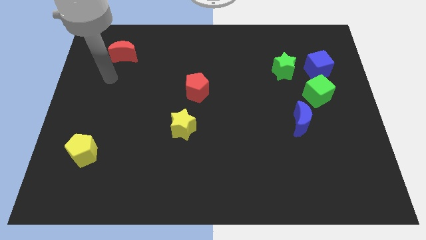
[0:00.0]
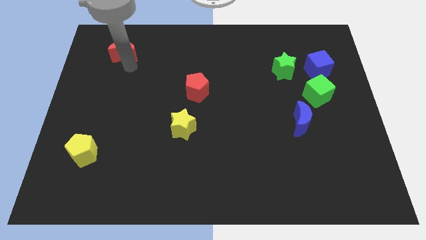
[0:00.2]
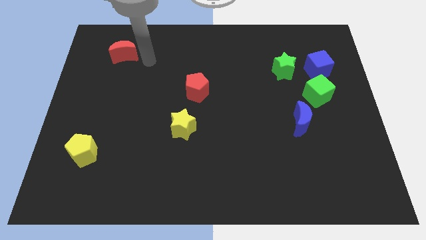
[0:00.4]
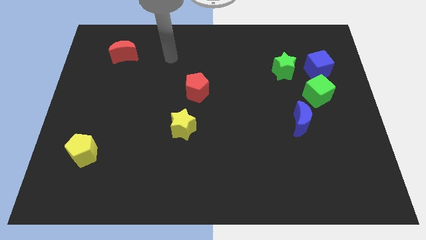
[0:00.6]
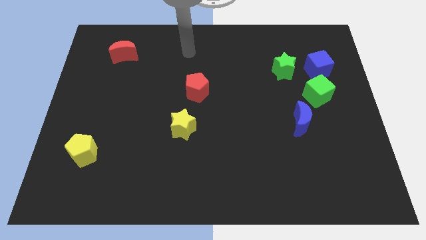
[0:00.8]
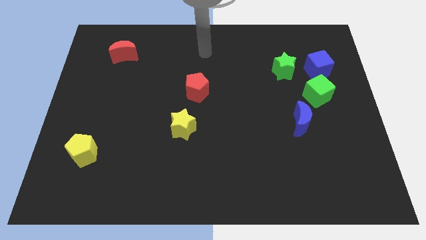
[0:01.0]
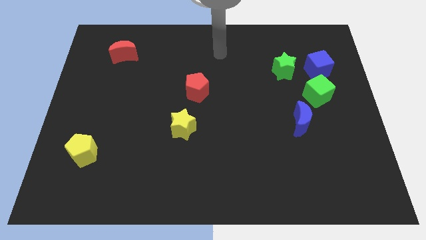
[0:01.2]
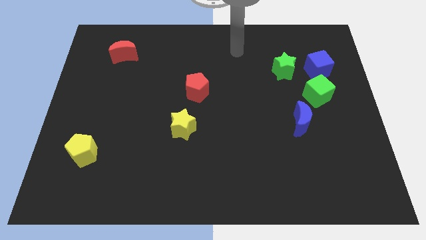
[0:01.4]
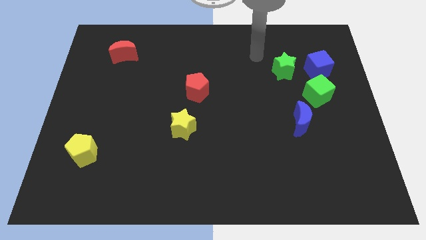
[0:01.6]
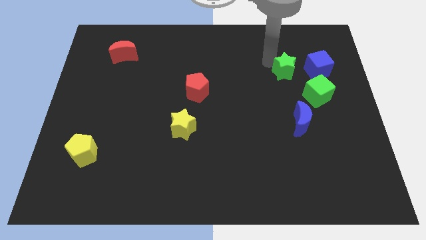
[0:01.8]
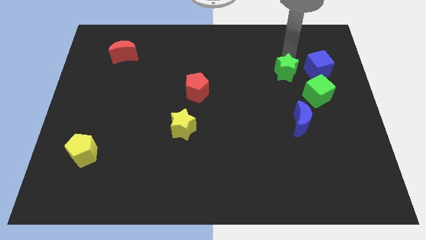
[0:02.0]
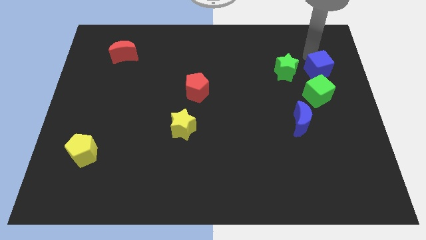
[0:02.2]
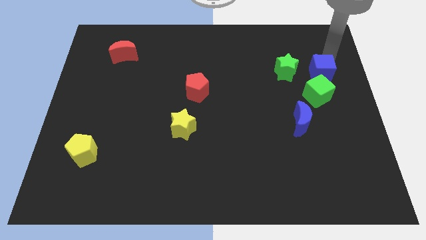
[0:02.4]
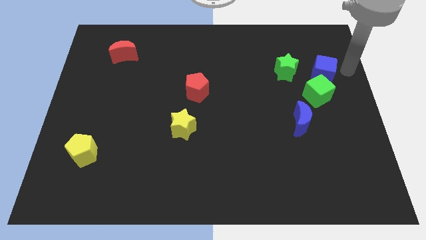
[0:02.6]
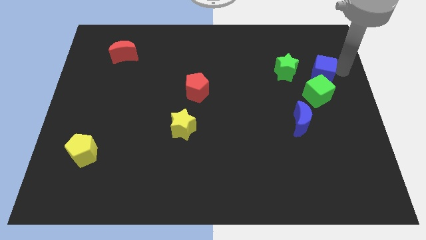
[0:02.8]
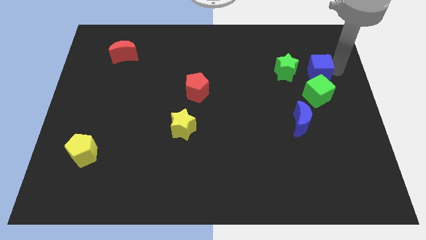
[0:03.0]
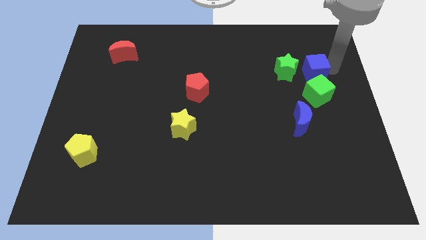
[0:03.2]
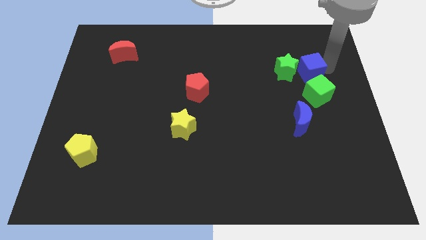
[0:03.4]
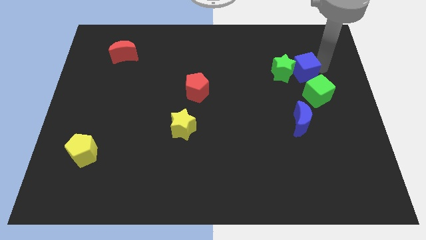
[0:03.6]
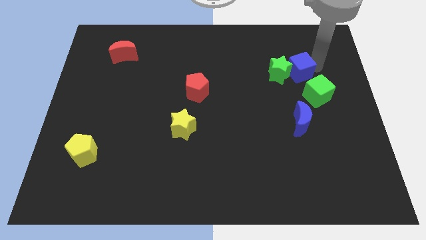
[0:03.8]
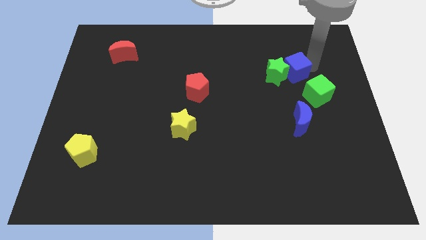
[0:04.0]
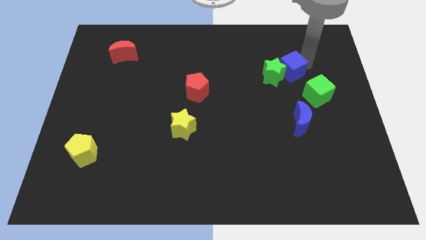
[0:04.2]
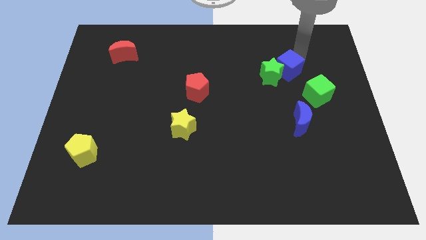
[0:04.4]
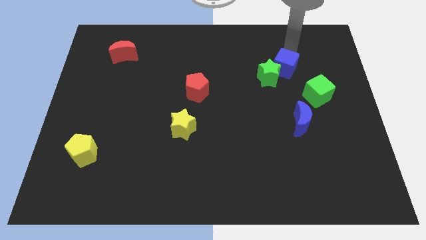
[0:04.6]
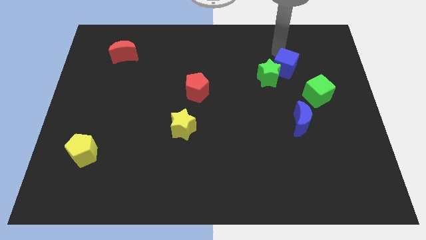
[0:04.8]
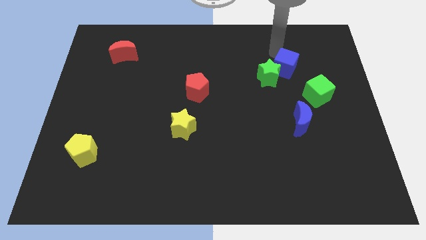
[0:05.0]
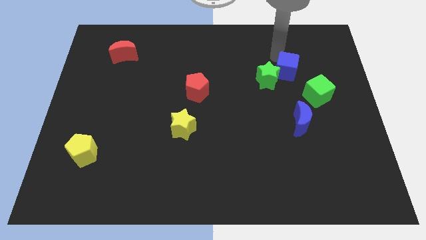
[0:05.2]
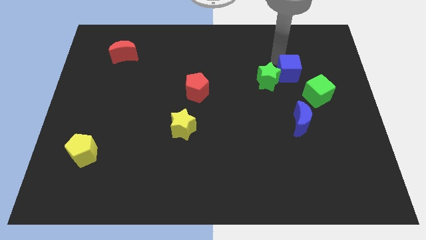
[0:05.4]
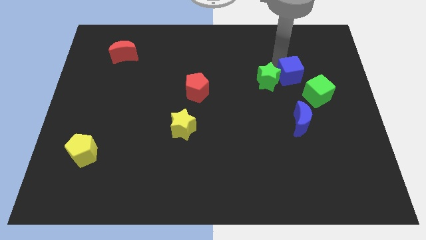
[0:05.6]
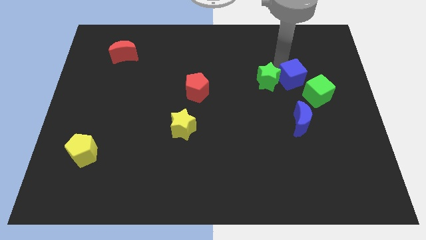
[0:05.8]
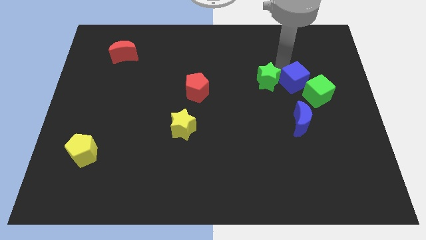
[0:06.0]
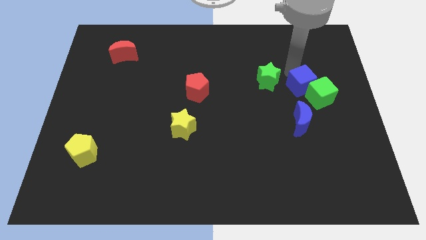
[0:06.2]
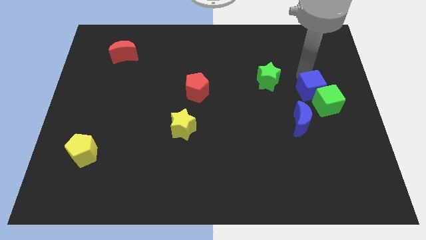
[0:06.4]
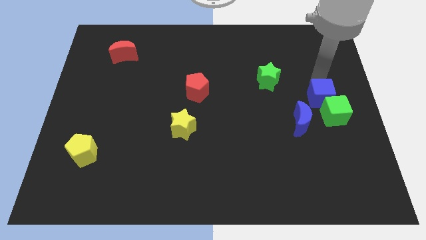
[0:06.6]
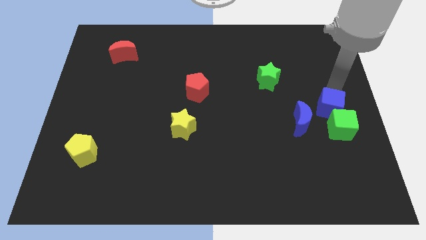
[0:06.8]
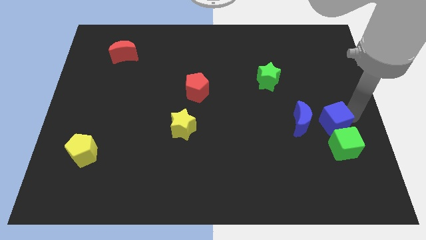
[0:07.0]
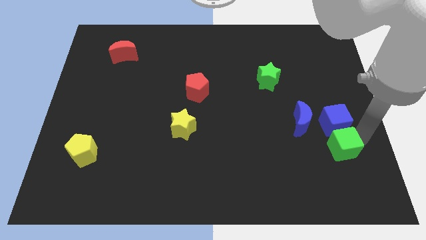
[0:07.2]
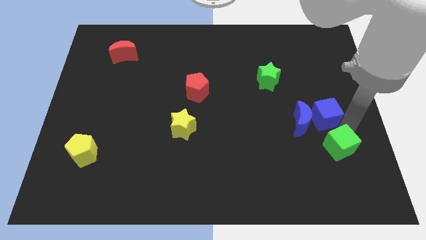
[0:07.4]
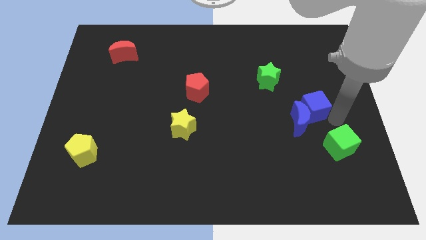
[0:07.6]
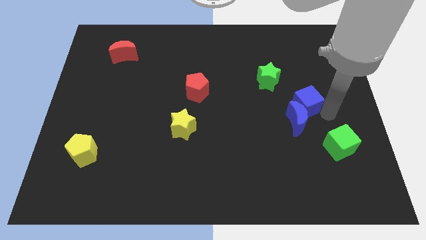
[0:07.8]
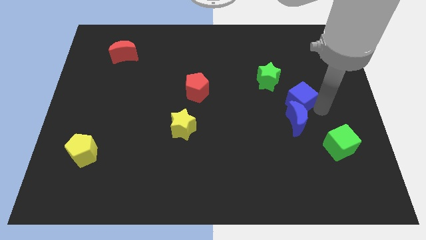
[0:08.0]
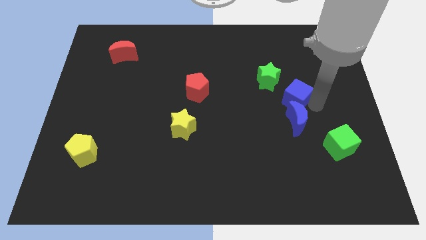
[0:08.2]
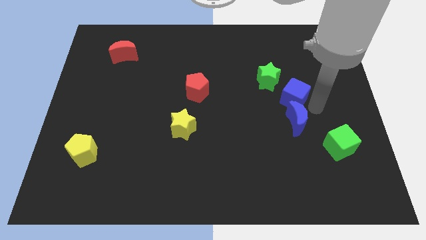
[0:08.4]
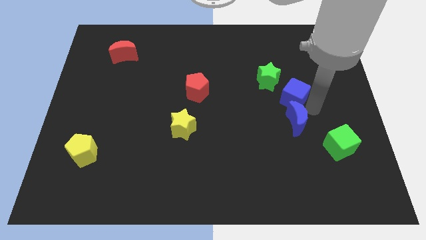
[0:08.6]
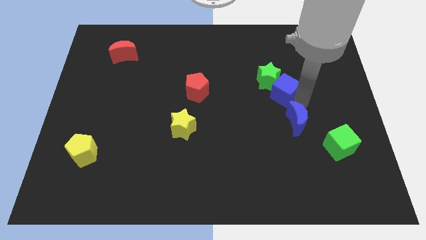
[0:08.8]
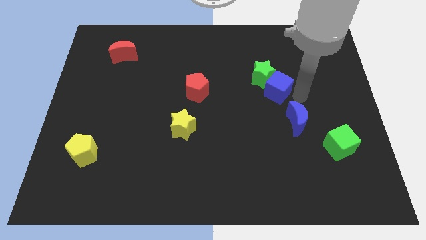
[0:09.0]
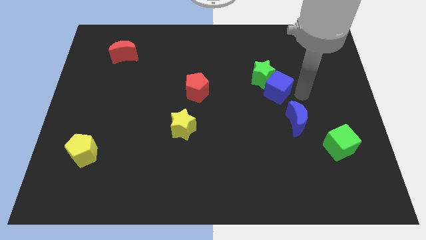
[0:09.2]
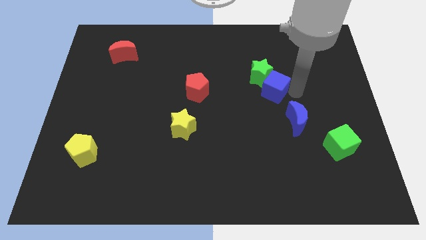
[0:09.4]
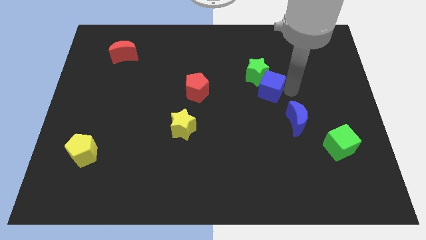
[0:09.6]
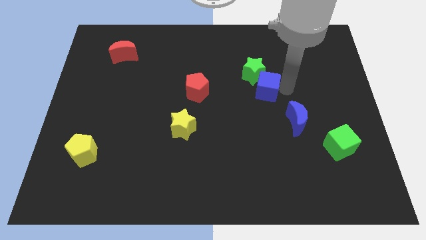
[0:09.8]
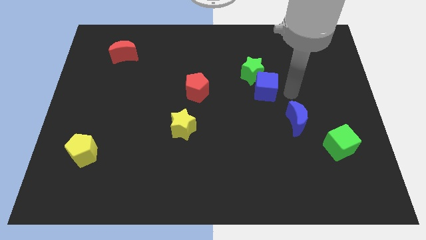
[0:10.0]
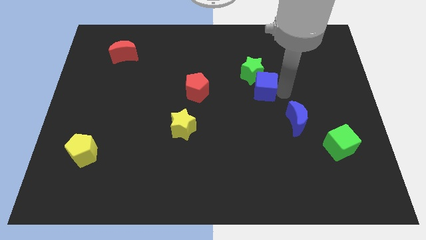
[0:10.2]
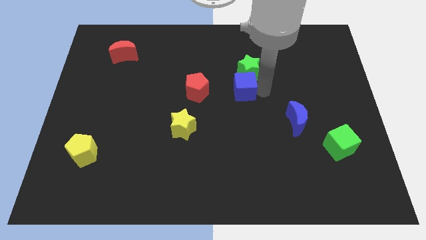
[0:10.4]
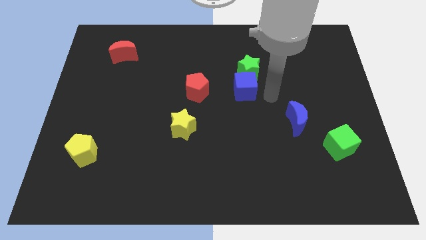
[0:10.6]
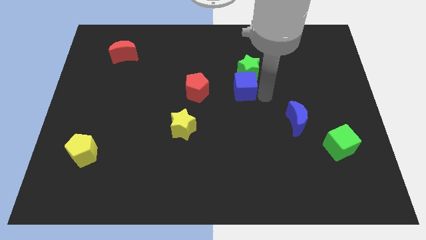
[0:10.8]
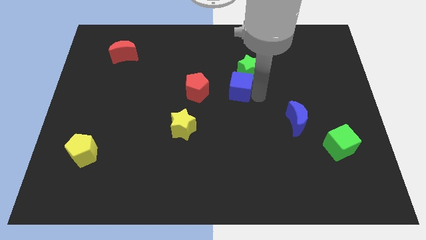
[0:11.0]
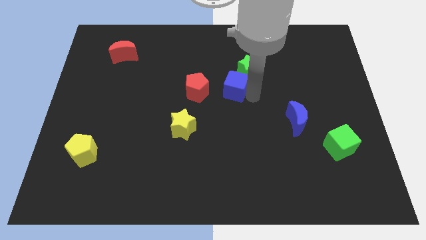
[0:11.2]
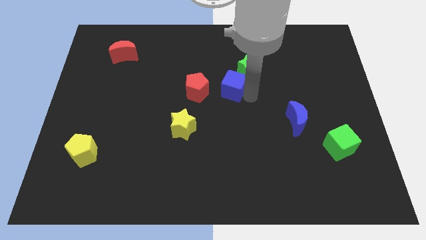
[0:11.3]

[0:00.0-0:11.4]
move the blue cube to the left

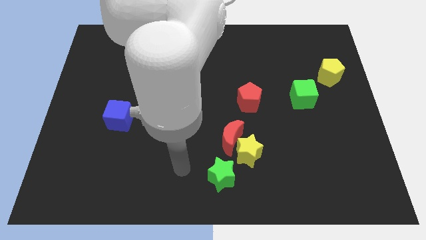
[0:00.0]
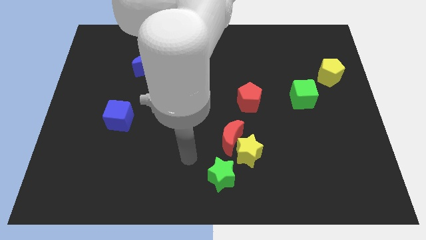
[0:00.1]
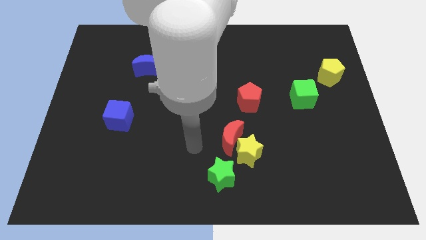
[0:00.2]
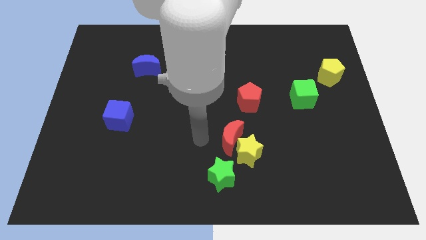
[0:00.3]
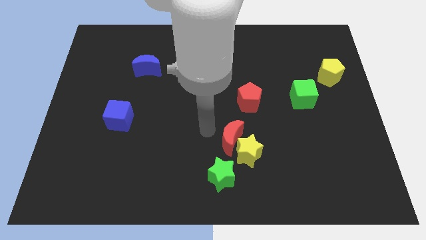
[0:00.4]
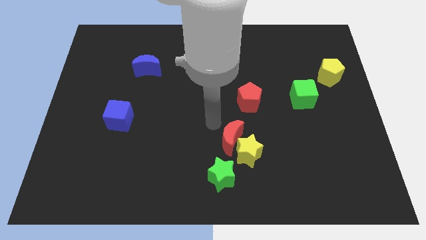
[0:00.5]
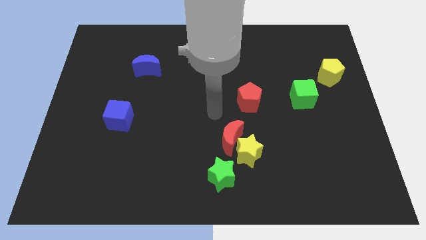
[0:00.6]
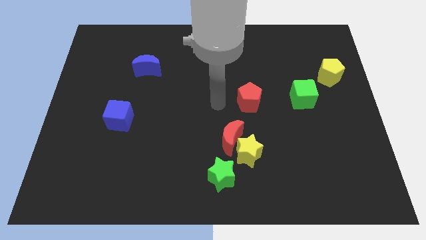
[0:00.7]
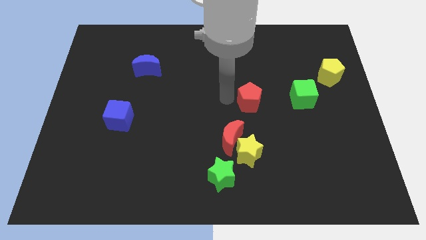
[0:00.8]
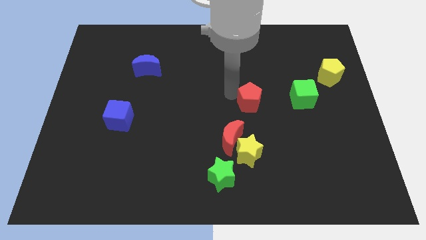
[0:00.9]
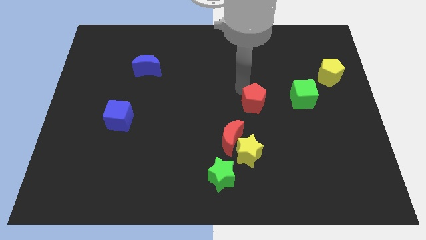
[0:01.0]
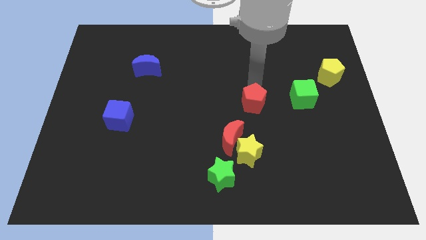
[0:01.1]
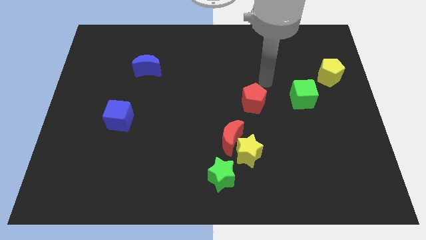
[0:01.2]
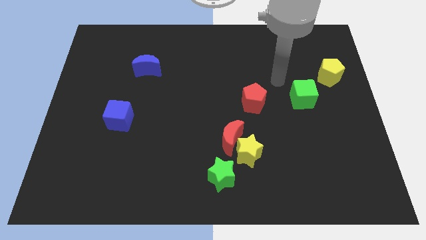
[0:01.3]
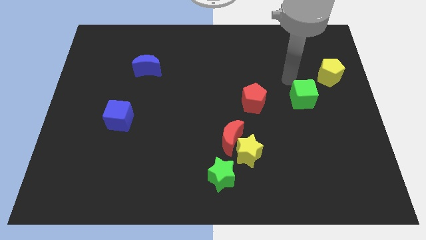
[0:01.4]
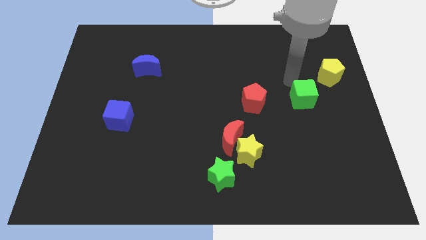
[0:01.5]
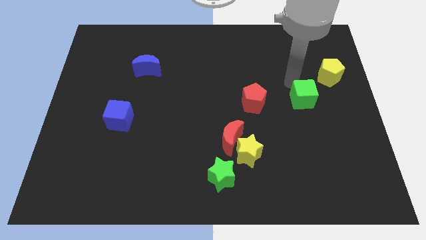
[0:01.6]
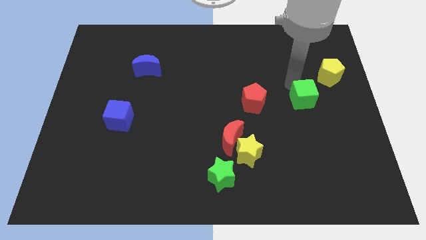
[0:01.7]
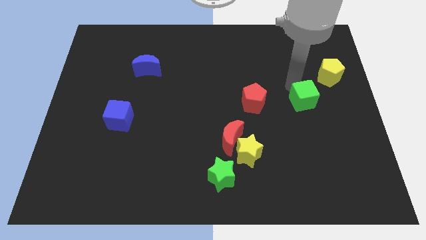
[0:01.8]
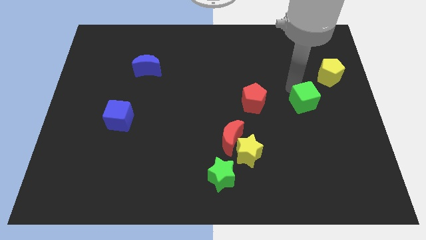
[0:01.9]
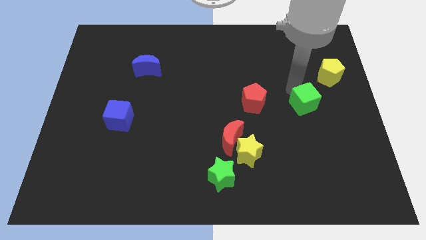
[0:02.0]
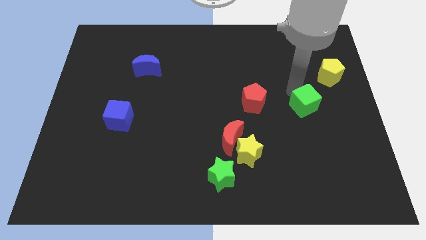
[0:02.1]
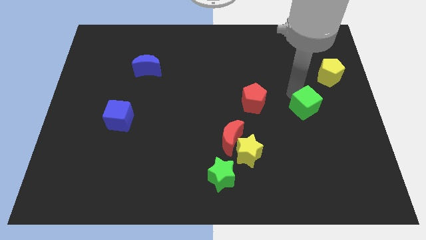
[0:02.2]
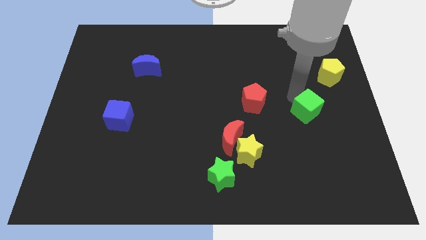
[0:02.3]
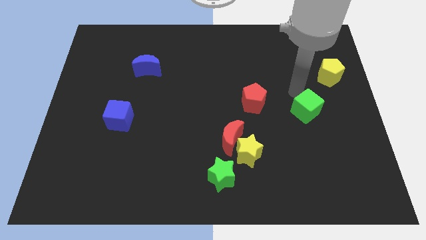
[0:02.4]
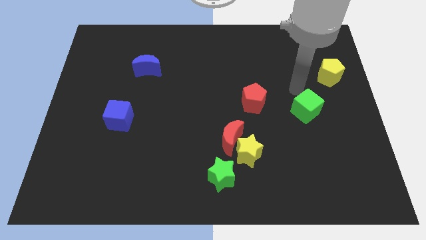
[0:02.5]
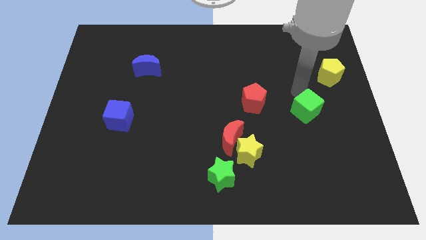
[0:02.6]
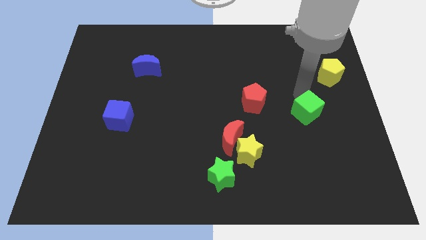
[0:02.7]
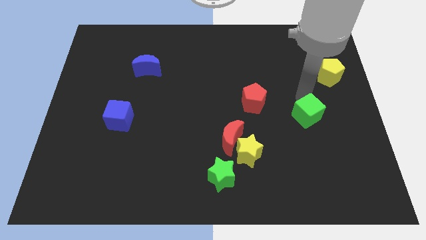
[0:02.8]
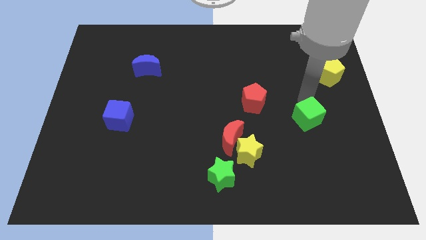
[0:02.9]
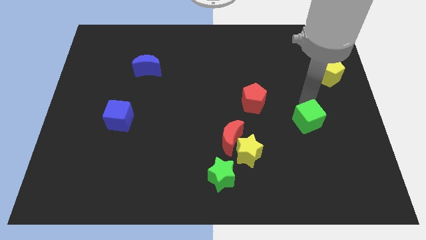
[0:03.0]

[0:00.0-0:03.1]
slightly slide the green cube down
